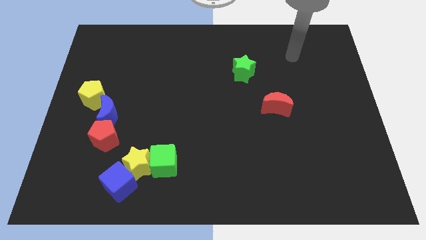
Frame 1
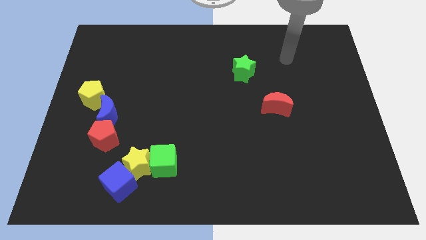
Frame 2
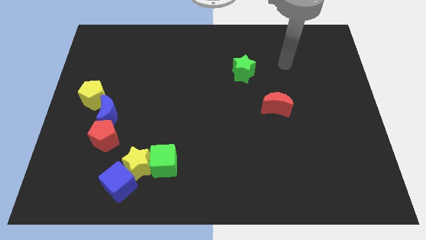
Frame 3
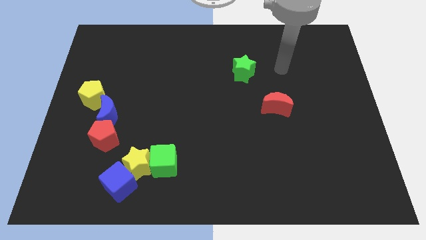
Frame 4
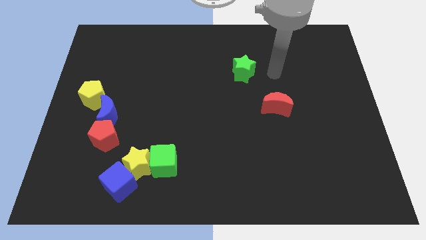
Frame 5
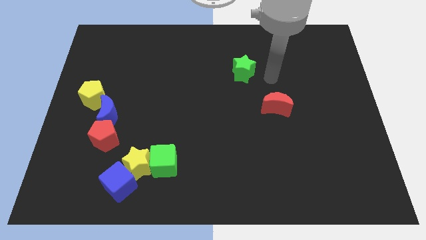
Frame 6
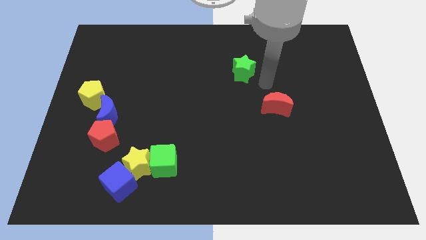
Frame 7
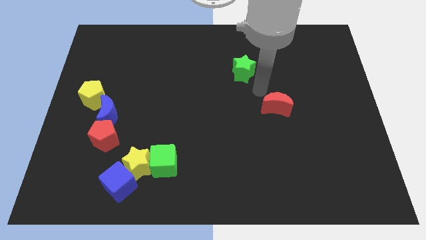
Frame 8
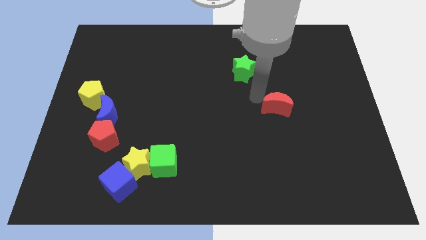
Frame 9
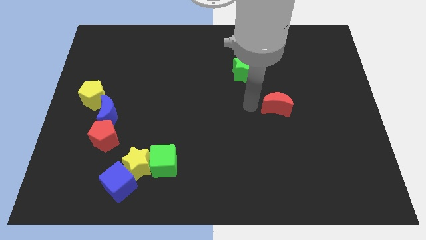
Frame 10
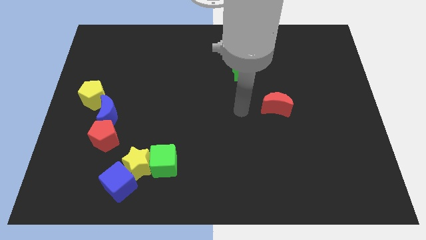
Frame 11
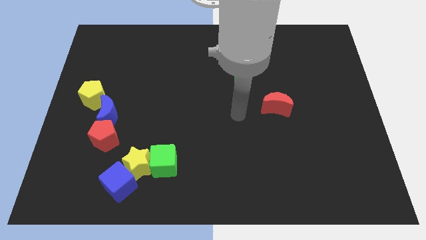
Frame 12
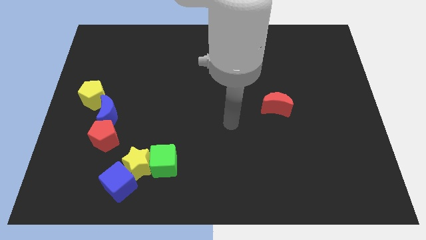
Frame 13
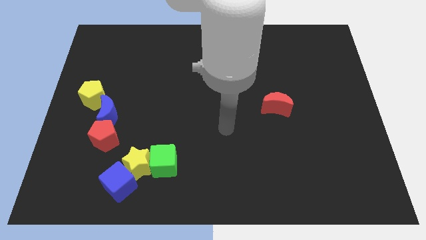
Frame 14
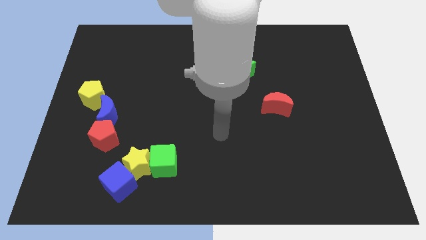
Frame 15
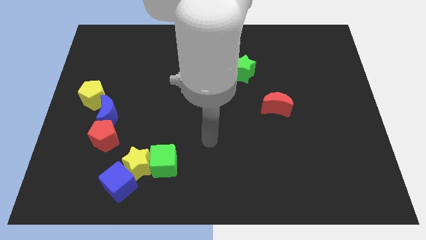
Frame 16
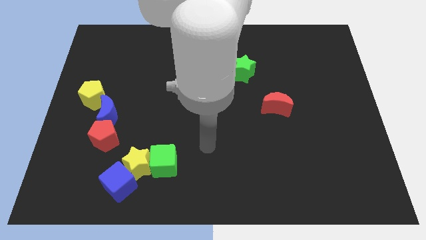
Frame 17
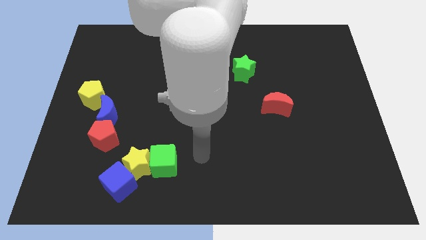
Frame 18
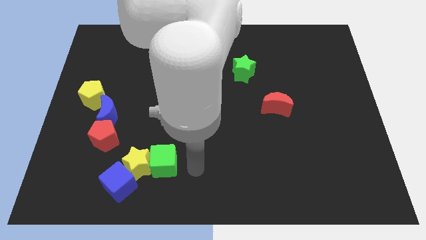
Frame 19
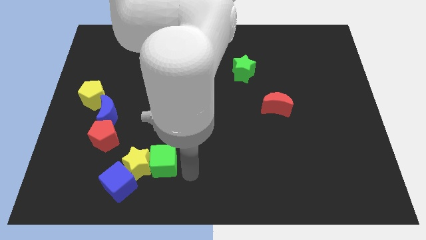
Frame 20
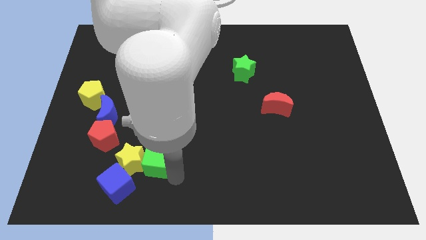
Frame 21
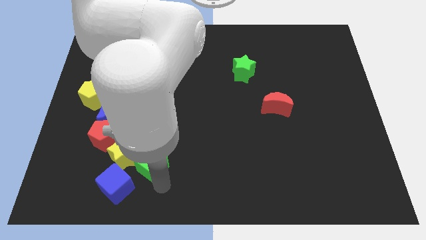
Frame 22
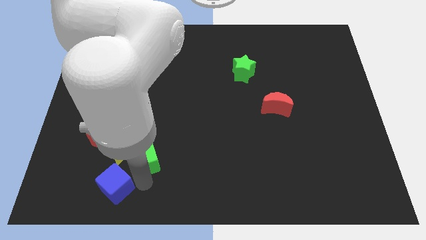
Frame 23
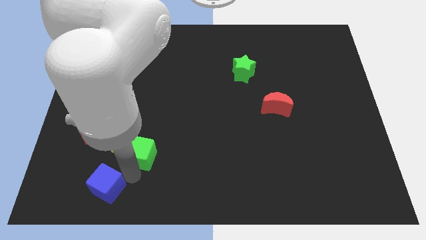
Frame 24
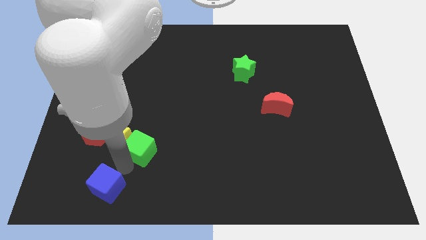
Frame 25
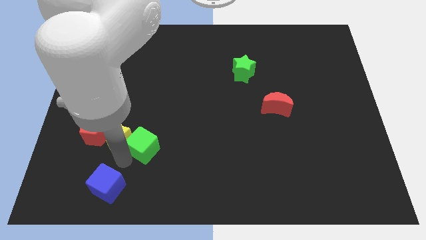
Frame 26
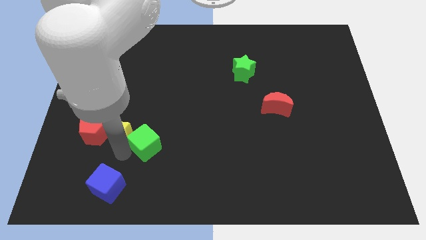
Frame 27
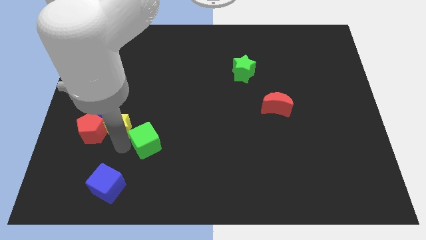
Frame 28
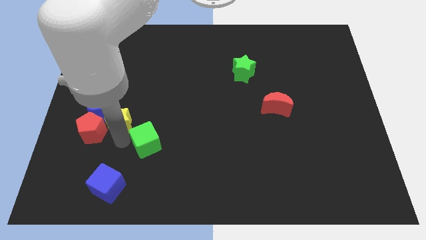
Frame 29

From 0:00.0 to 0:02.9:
pull the yellow star apart from the green cube and blue cube

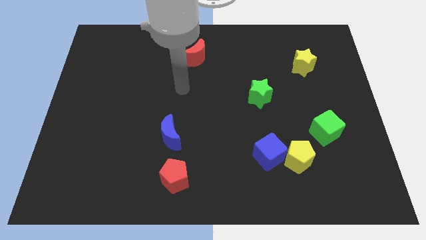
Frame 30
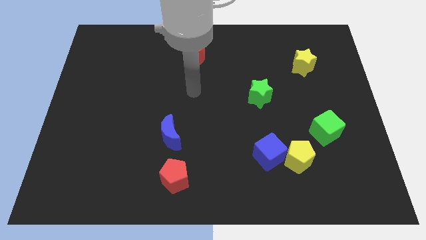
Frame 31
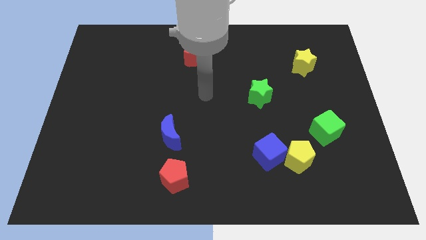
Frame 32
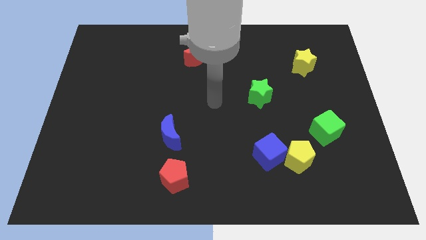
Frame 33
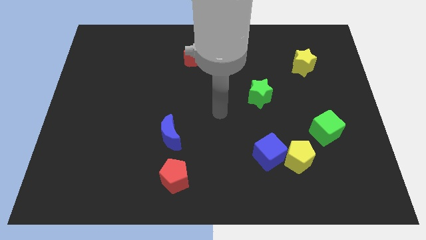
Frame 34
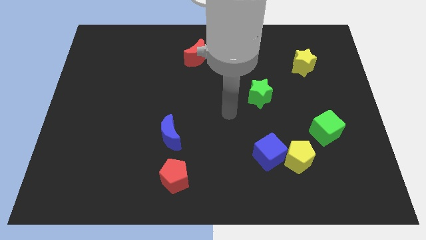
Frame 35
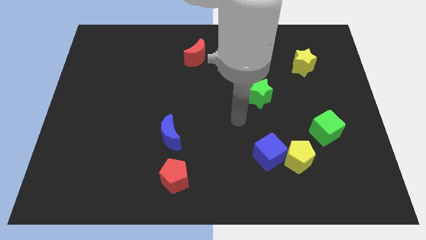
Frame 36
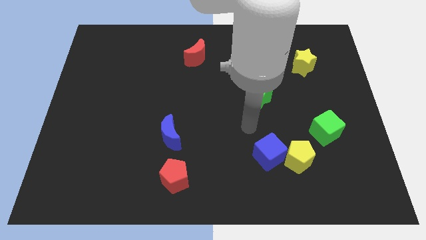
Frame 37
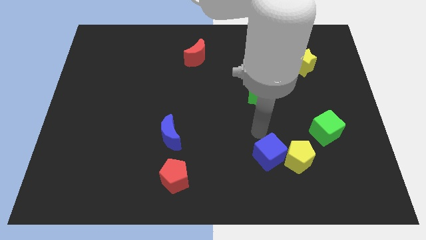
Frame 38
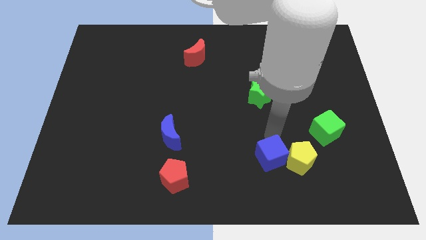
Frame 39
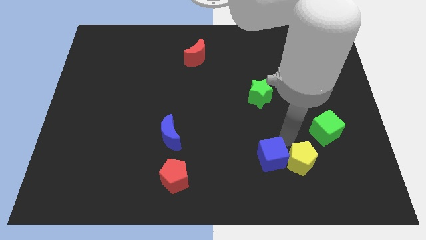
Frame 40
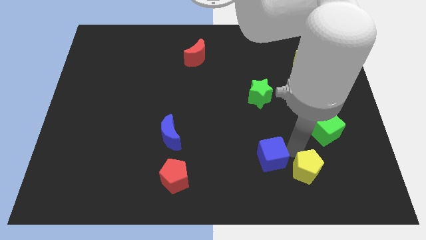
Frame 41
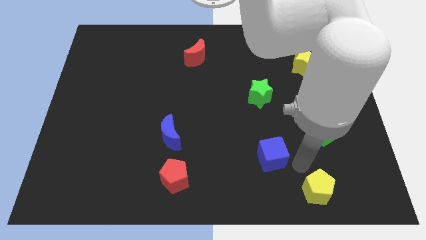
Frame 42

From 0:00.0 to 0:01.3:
separate the blue cube from the yellow pentagon

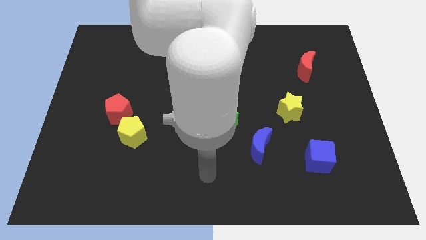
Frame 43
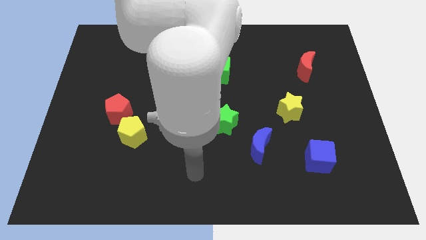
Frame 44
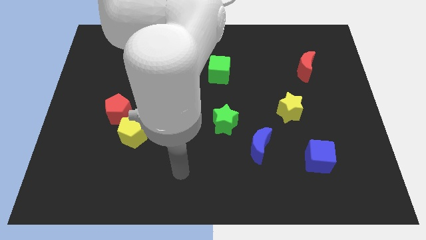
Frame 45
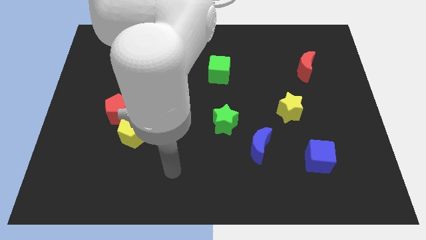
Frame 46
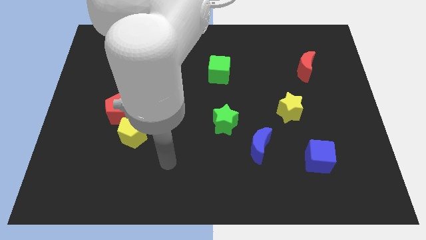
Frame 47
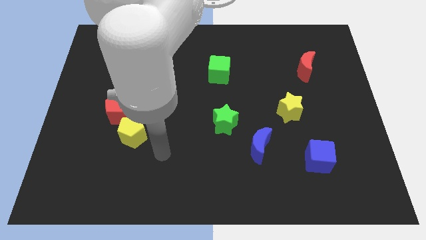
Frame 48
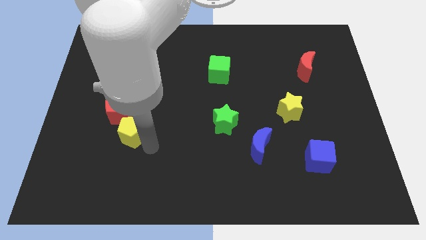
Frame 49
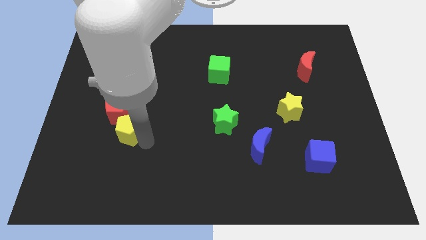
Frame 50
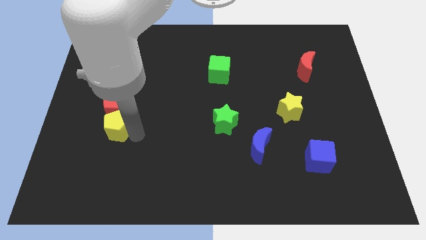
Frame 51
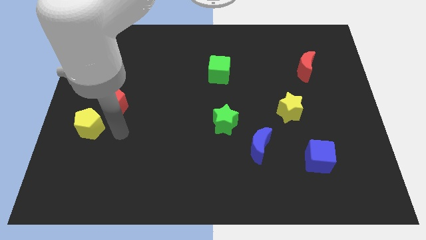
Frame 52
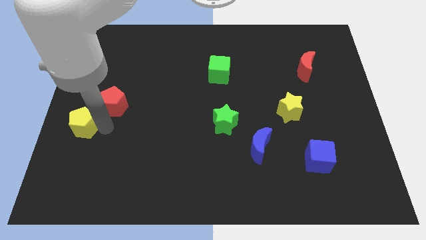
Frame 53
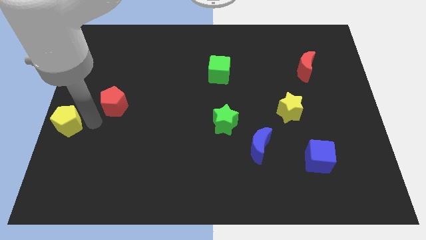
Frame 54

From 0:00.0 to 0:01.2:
separate the red pentagon from the yellow pentagon

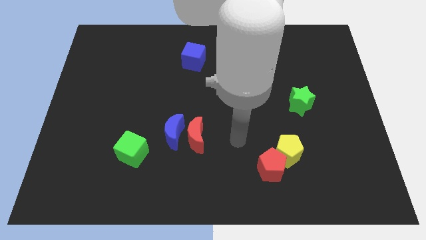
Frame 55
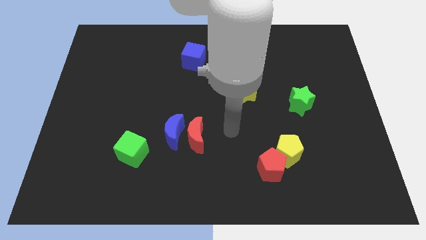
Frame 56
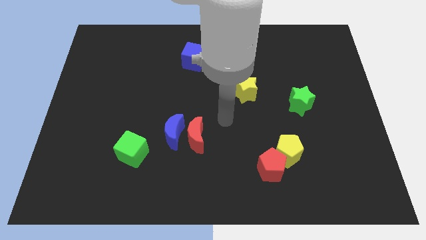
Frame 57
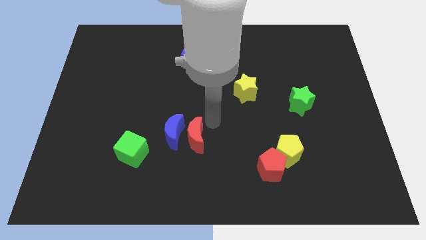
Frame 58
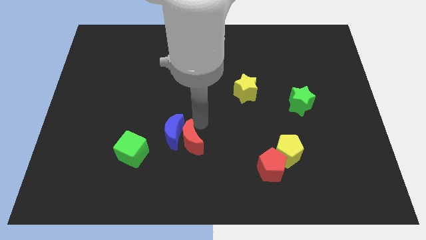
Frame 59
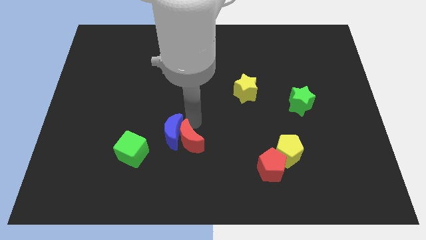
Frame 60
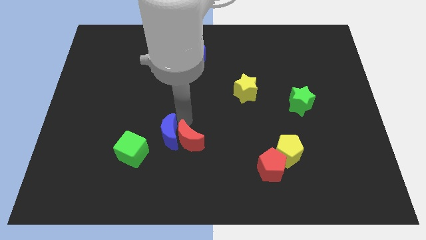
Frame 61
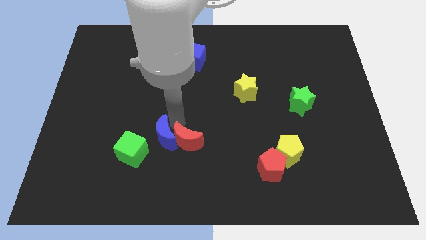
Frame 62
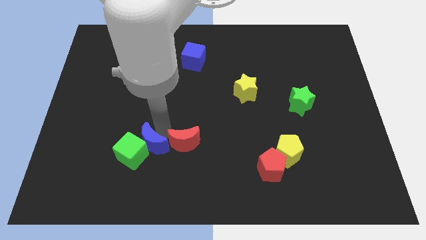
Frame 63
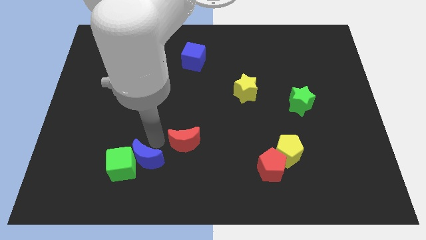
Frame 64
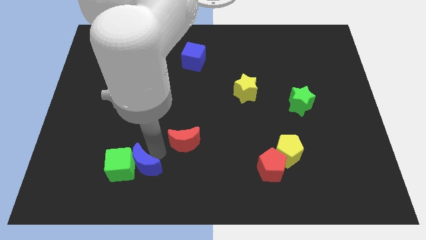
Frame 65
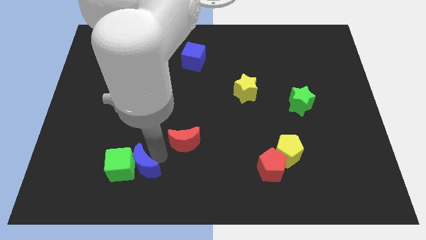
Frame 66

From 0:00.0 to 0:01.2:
separate the red moon from the blue moon

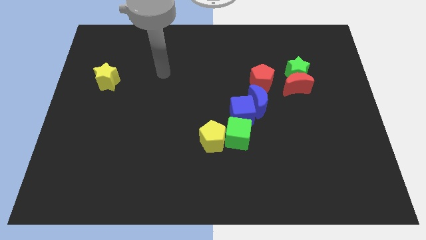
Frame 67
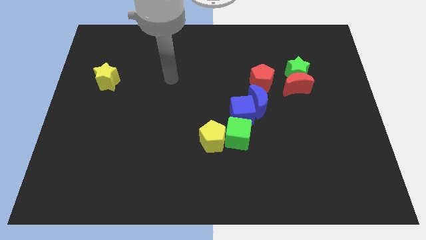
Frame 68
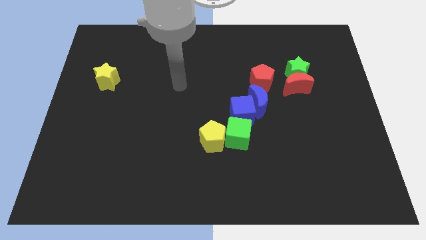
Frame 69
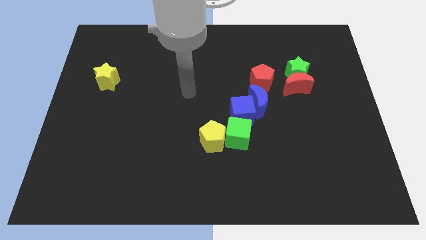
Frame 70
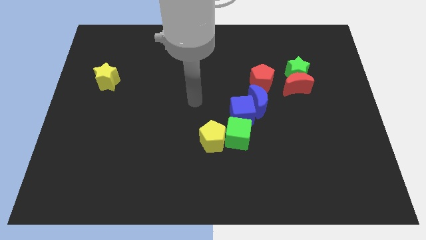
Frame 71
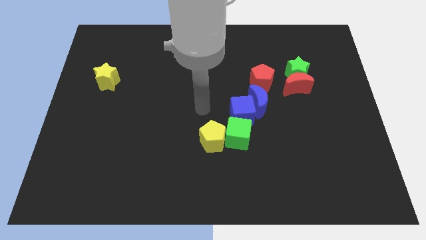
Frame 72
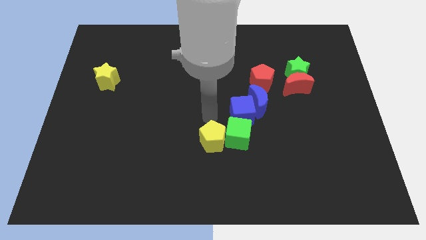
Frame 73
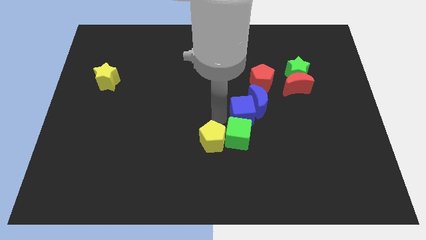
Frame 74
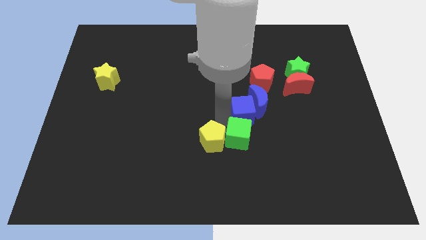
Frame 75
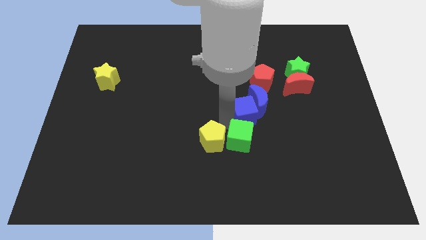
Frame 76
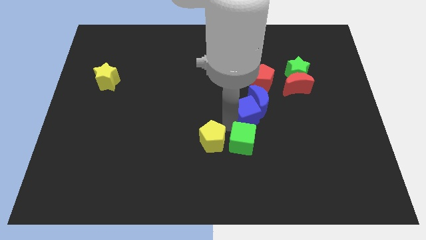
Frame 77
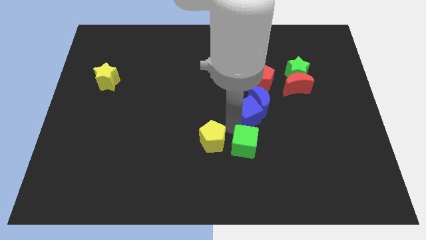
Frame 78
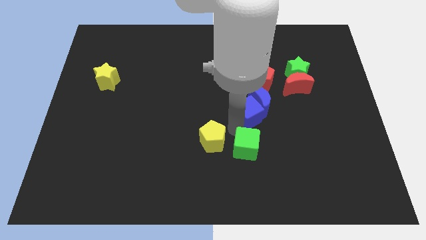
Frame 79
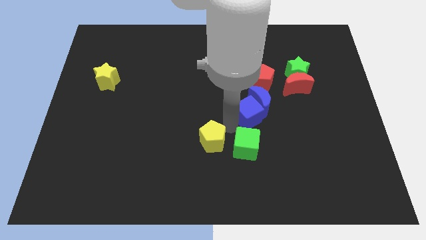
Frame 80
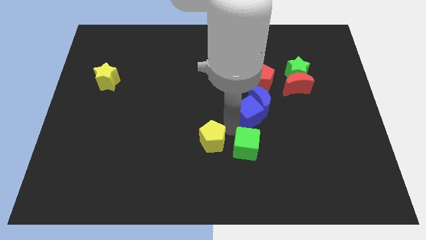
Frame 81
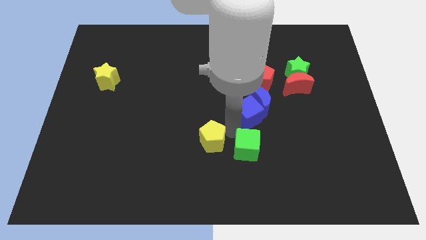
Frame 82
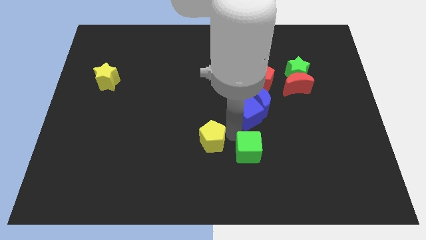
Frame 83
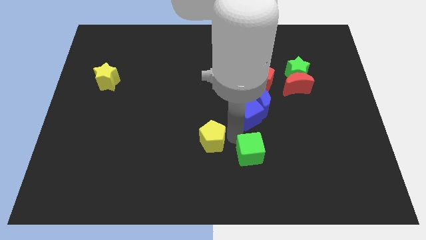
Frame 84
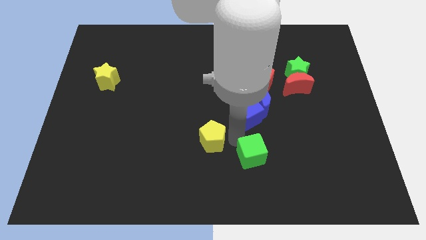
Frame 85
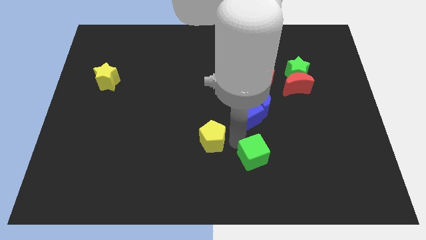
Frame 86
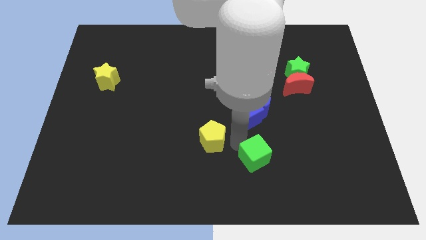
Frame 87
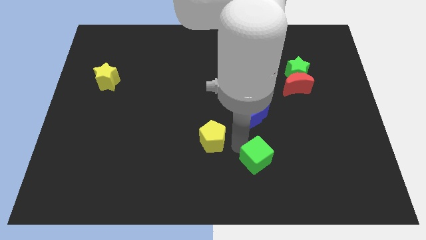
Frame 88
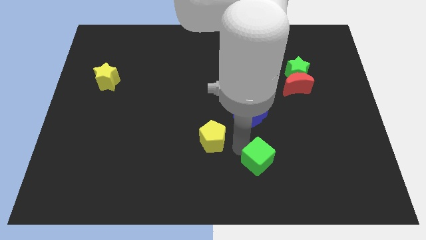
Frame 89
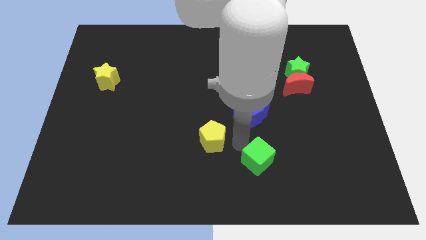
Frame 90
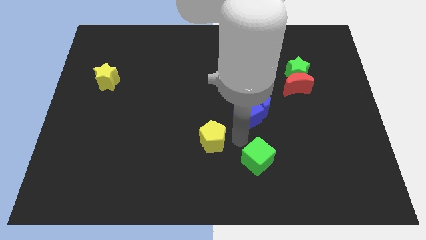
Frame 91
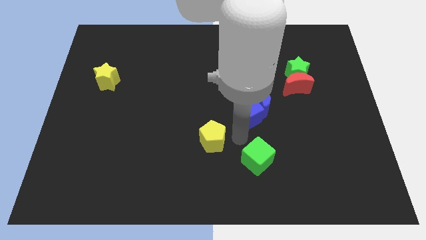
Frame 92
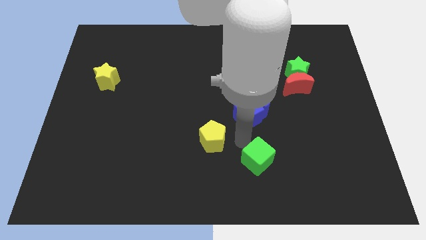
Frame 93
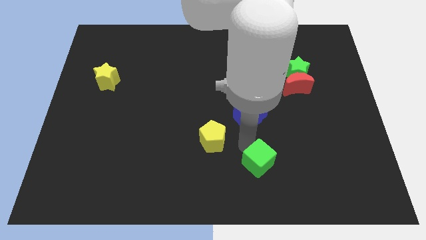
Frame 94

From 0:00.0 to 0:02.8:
separate the green cube from the yellow pentagon and blue cube
